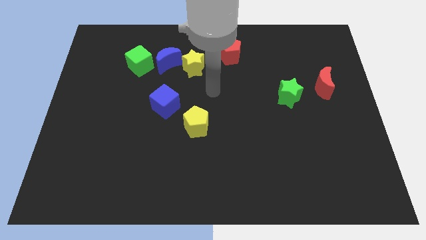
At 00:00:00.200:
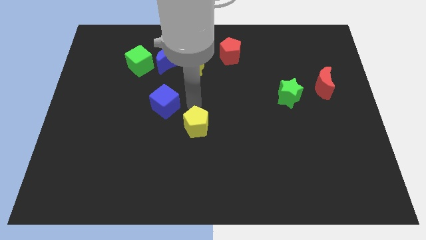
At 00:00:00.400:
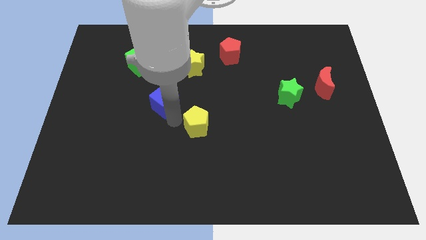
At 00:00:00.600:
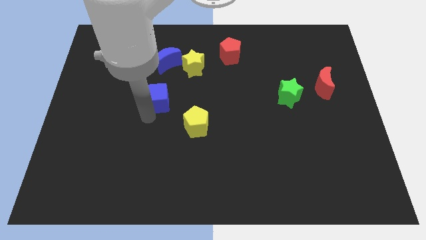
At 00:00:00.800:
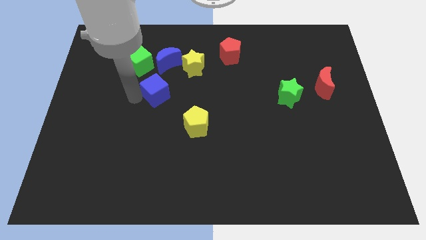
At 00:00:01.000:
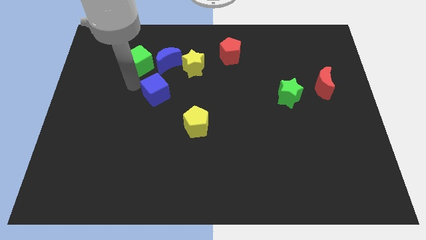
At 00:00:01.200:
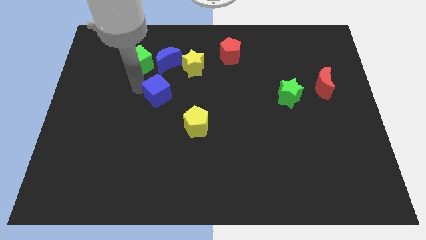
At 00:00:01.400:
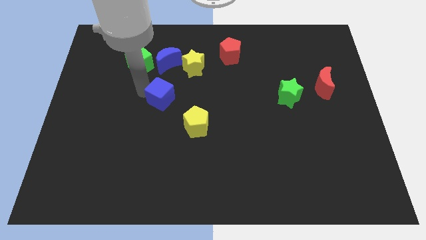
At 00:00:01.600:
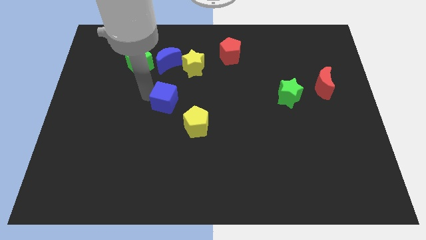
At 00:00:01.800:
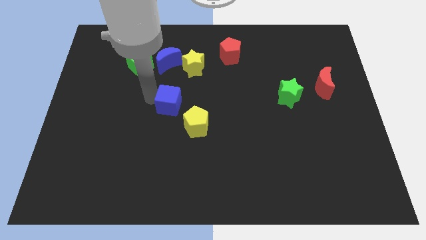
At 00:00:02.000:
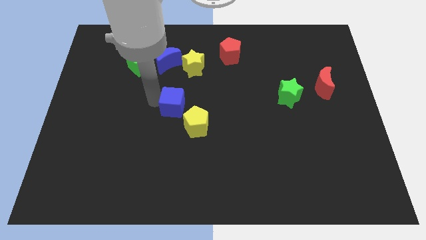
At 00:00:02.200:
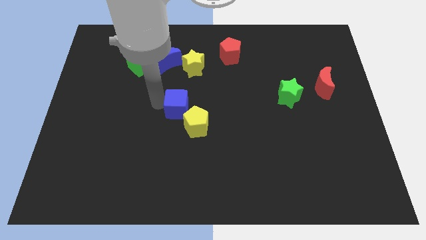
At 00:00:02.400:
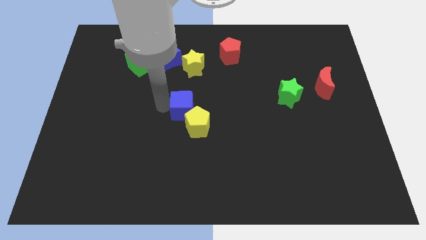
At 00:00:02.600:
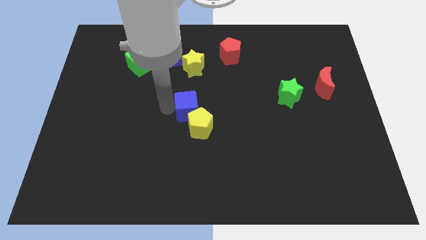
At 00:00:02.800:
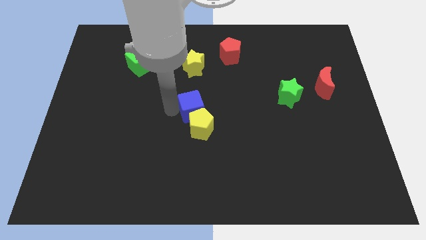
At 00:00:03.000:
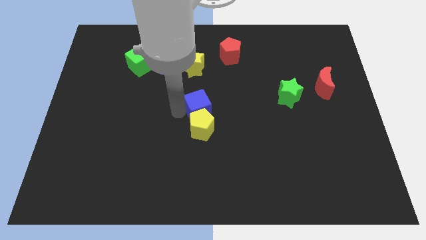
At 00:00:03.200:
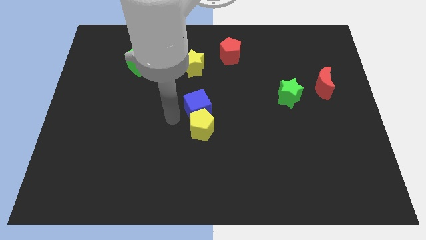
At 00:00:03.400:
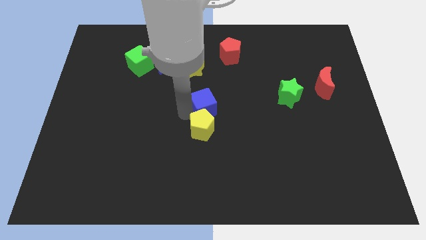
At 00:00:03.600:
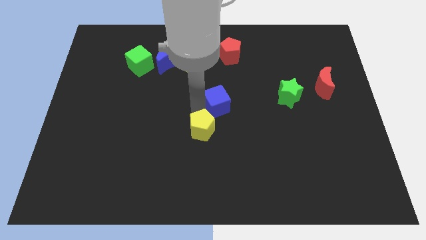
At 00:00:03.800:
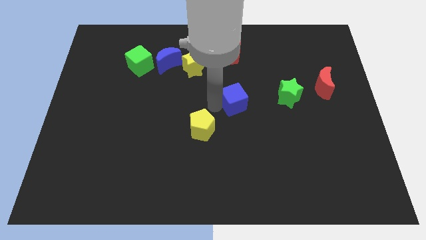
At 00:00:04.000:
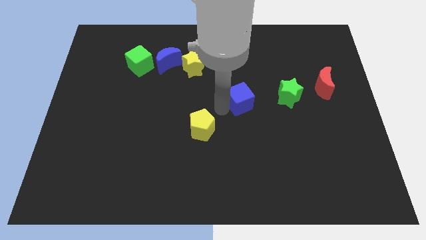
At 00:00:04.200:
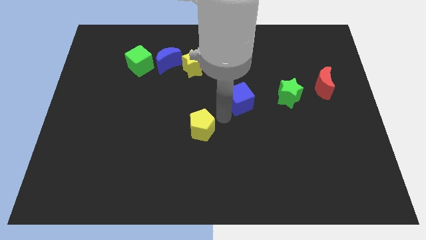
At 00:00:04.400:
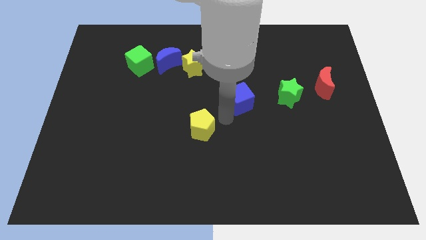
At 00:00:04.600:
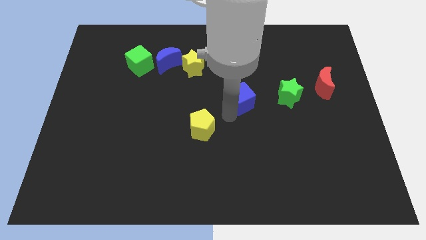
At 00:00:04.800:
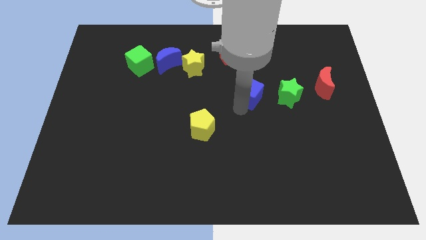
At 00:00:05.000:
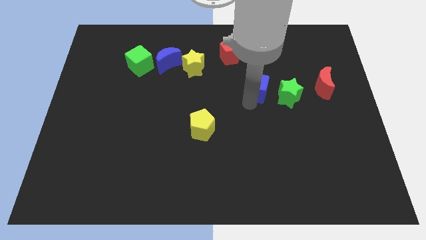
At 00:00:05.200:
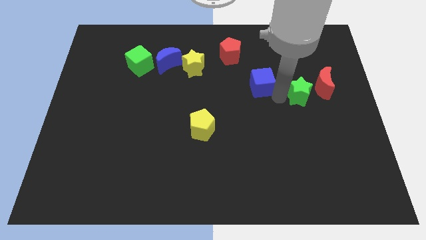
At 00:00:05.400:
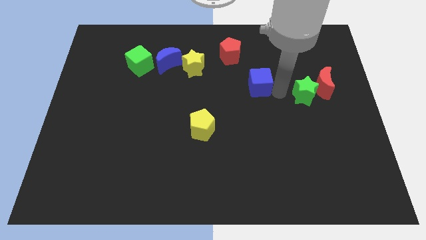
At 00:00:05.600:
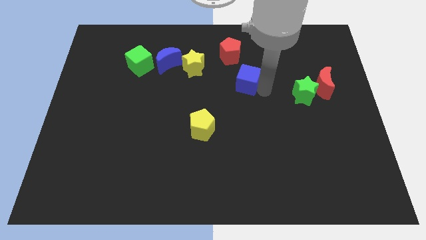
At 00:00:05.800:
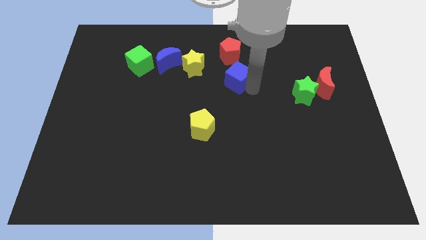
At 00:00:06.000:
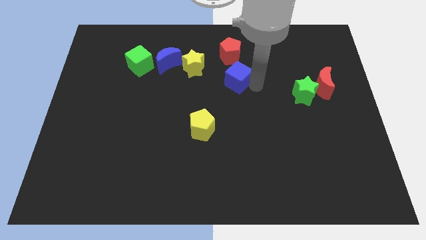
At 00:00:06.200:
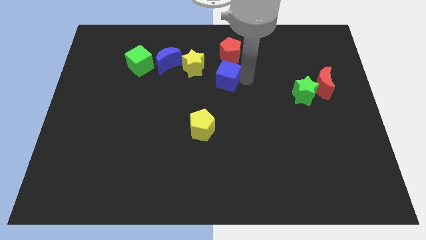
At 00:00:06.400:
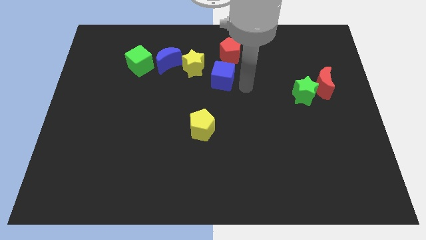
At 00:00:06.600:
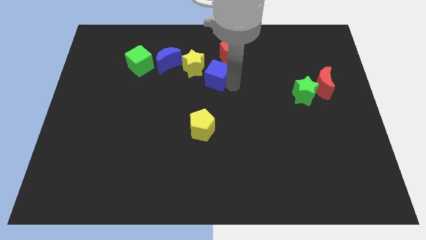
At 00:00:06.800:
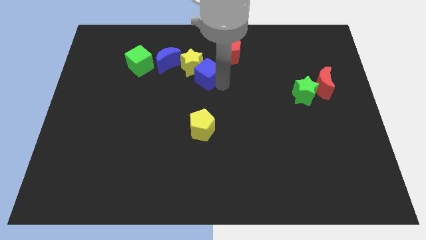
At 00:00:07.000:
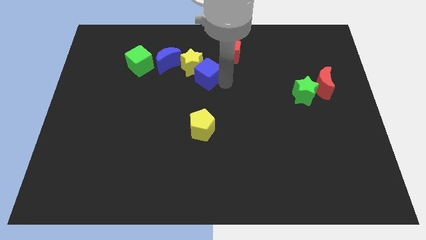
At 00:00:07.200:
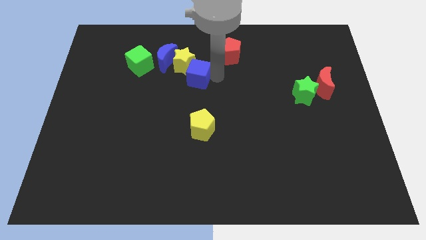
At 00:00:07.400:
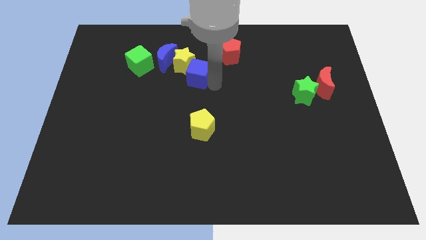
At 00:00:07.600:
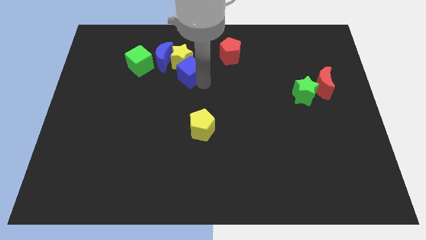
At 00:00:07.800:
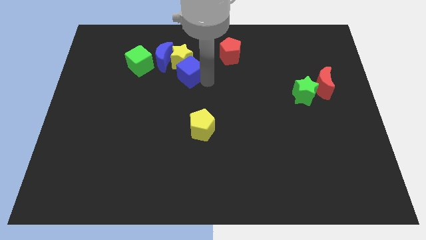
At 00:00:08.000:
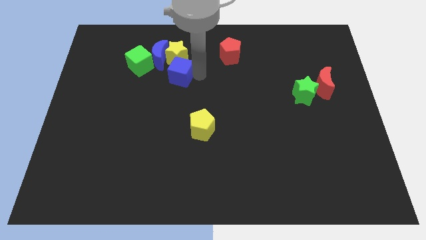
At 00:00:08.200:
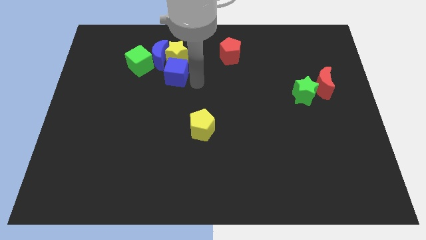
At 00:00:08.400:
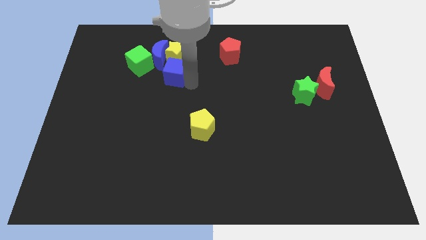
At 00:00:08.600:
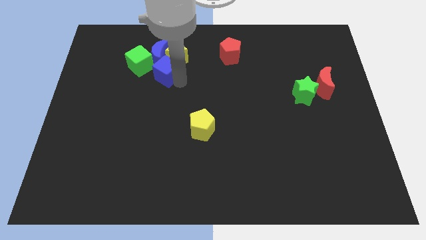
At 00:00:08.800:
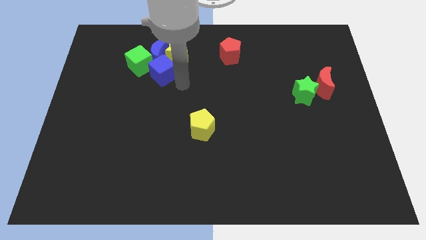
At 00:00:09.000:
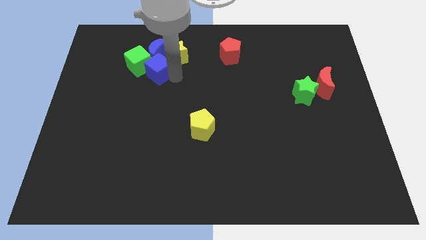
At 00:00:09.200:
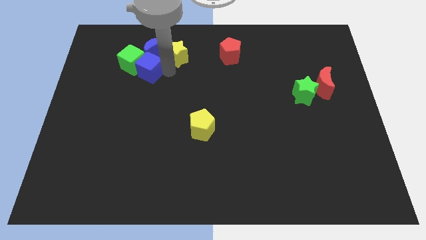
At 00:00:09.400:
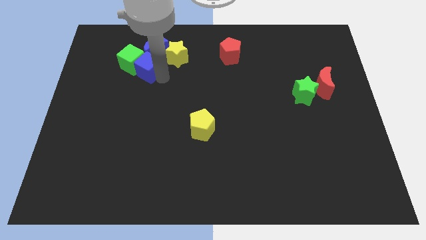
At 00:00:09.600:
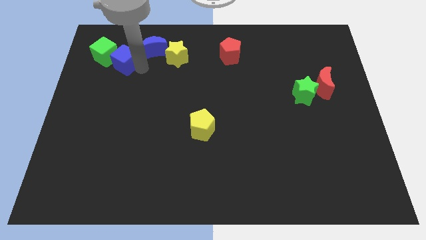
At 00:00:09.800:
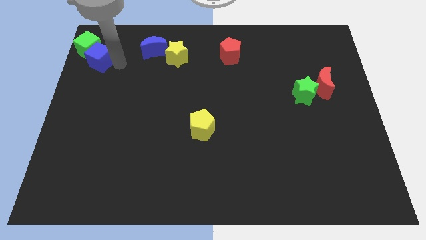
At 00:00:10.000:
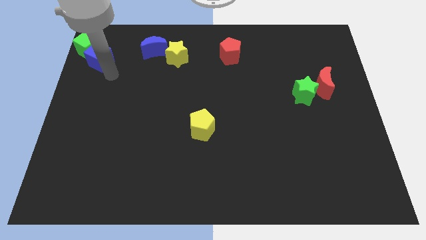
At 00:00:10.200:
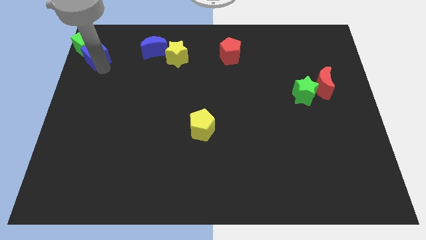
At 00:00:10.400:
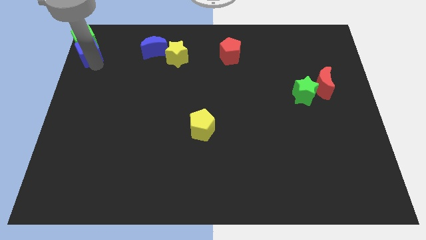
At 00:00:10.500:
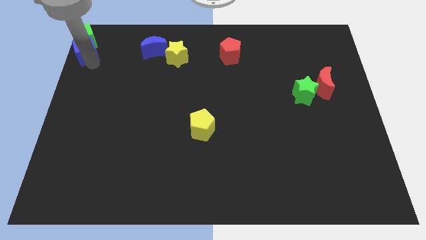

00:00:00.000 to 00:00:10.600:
slide the blue cube to the top left

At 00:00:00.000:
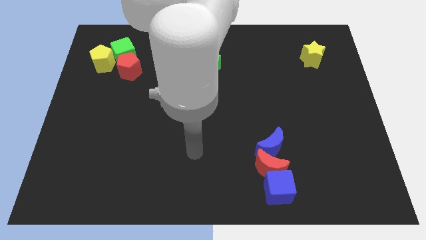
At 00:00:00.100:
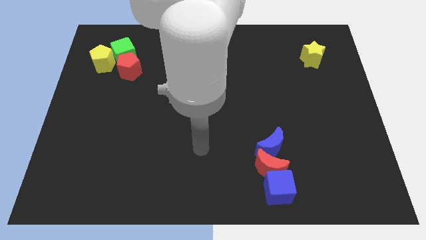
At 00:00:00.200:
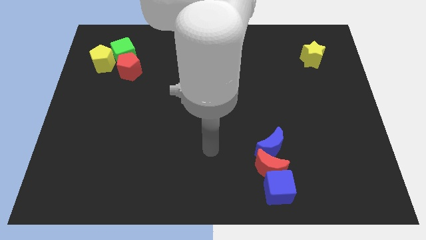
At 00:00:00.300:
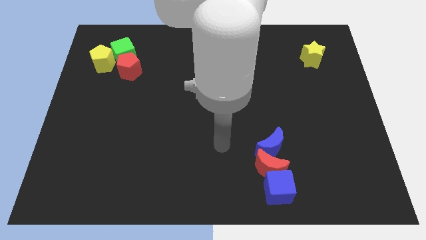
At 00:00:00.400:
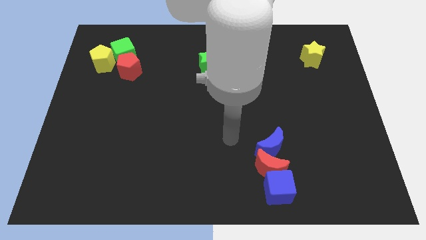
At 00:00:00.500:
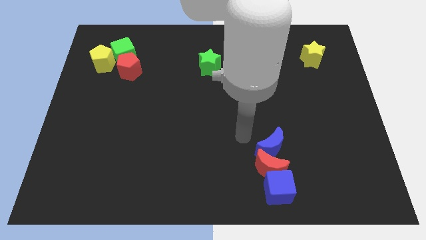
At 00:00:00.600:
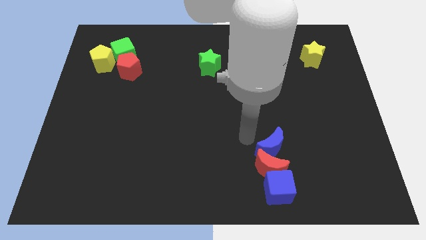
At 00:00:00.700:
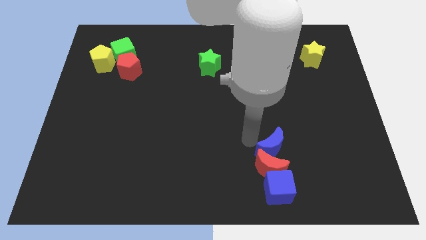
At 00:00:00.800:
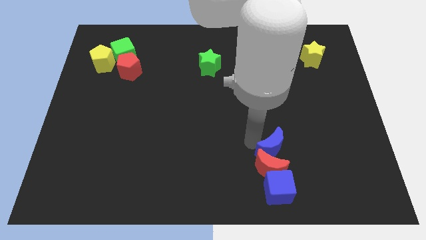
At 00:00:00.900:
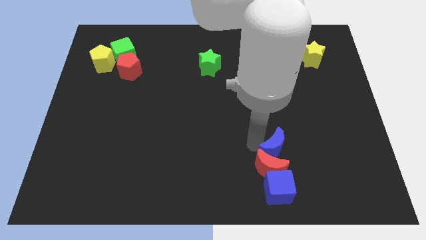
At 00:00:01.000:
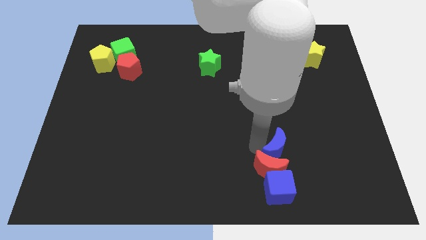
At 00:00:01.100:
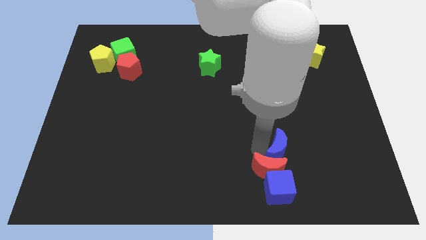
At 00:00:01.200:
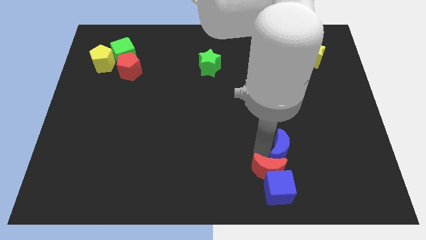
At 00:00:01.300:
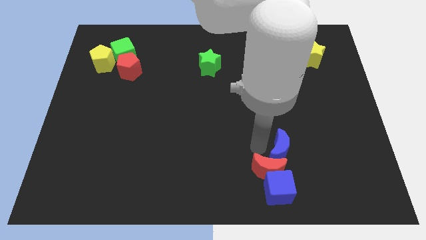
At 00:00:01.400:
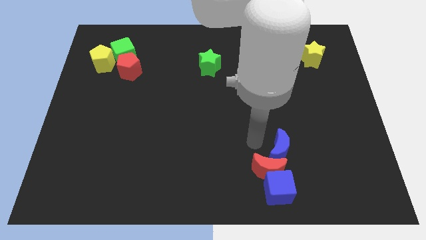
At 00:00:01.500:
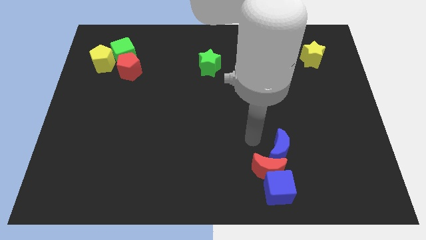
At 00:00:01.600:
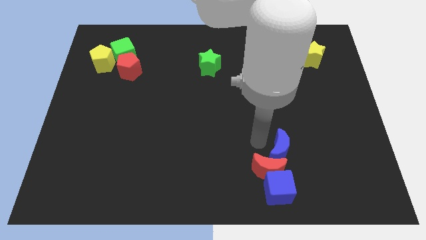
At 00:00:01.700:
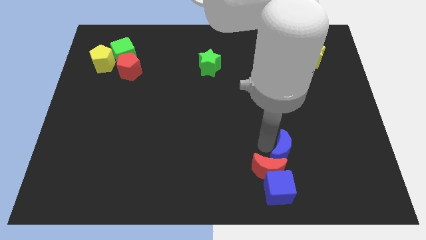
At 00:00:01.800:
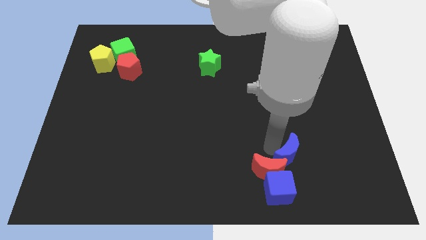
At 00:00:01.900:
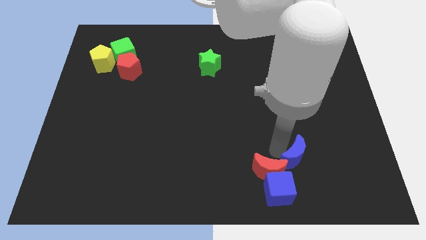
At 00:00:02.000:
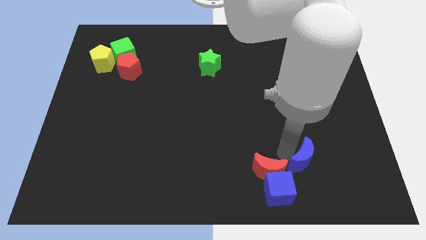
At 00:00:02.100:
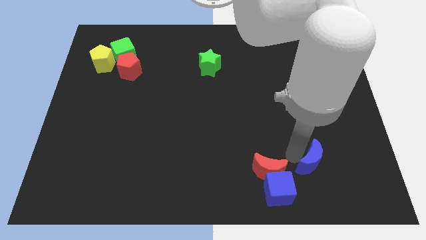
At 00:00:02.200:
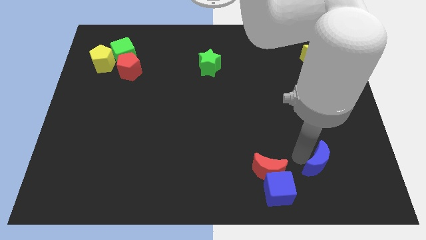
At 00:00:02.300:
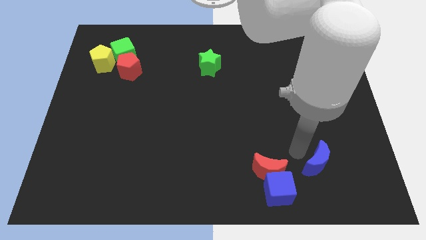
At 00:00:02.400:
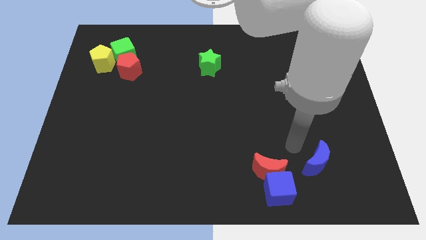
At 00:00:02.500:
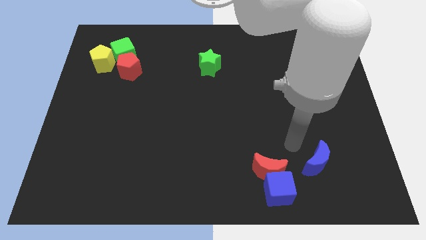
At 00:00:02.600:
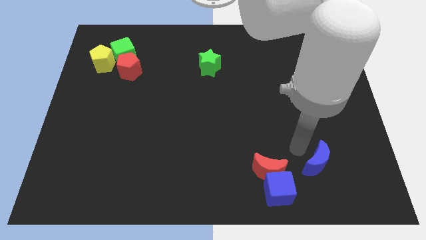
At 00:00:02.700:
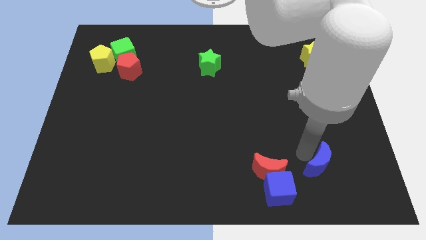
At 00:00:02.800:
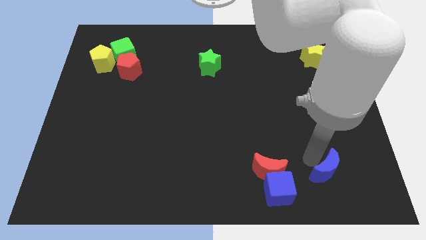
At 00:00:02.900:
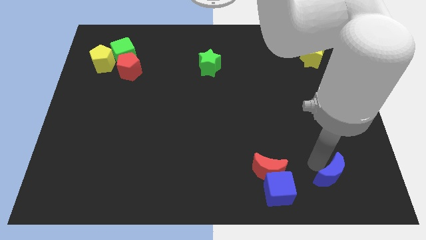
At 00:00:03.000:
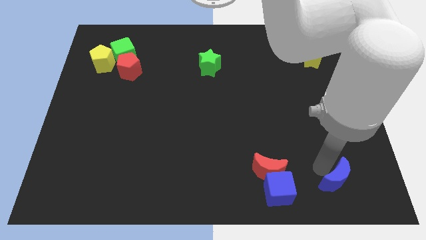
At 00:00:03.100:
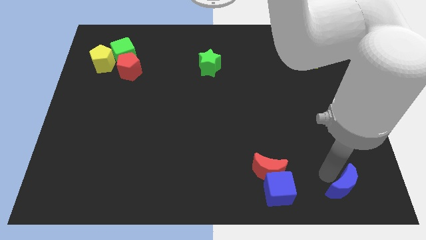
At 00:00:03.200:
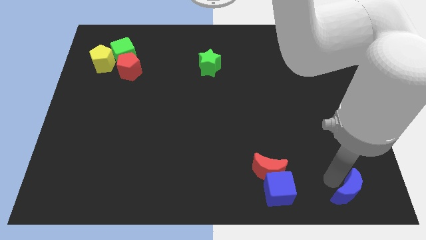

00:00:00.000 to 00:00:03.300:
put the blue moon to the bottom right of the board
